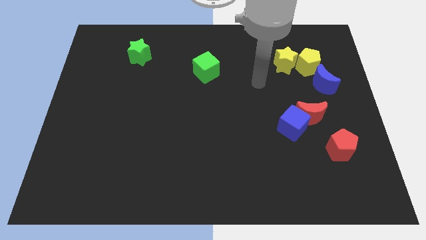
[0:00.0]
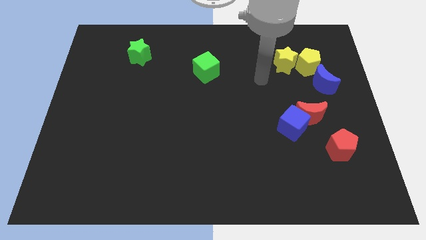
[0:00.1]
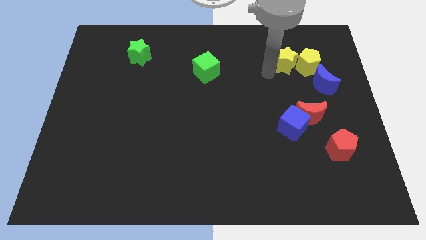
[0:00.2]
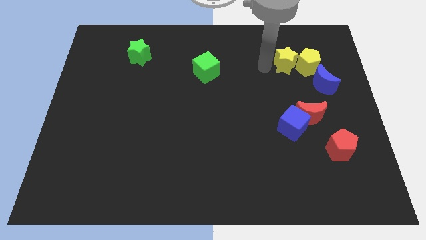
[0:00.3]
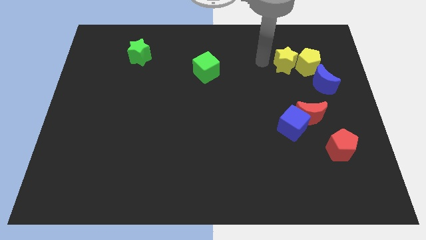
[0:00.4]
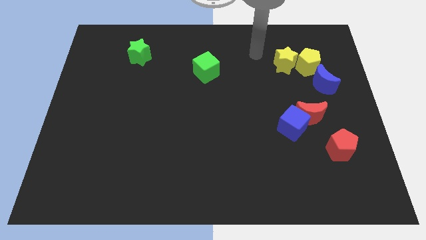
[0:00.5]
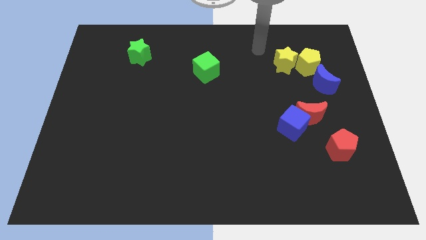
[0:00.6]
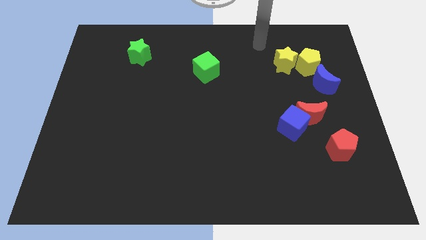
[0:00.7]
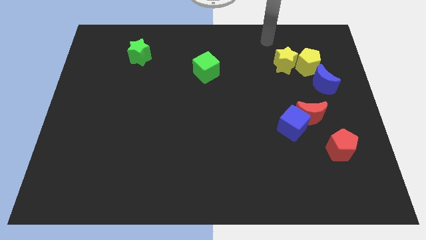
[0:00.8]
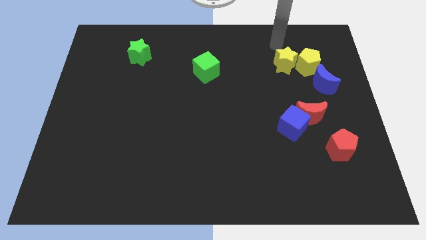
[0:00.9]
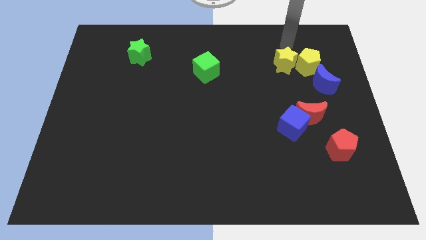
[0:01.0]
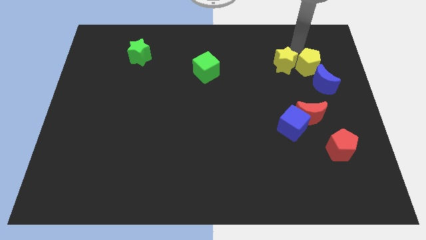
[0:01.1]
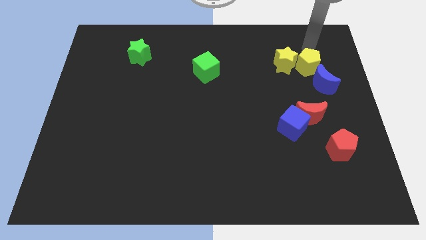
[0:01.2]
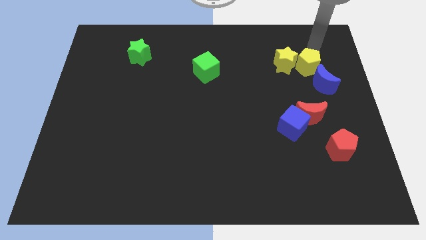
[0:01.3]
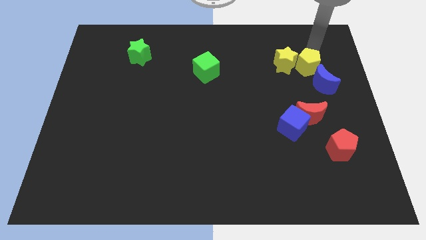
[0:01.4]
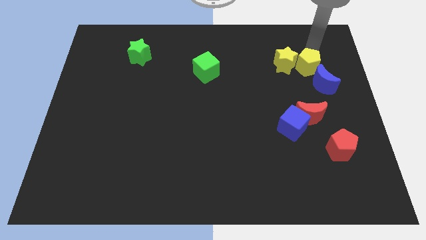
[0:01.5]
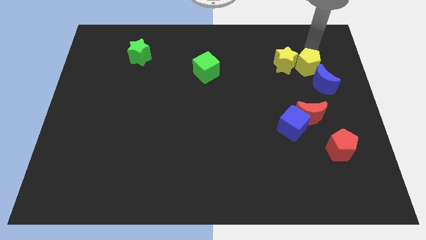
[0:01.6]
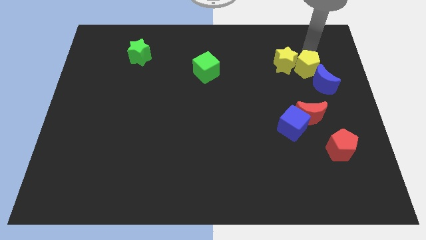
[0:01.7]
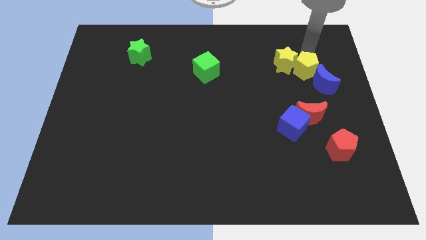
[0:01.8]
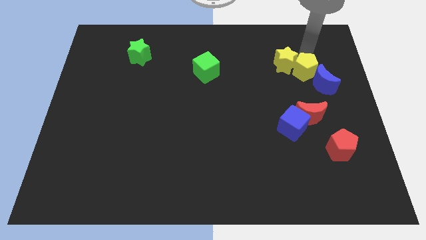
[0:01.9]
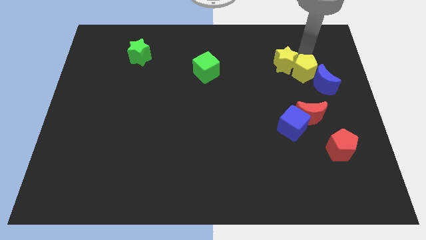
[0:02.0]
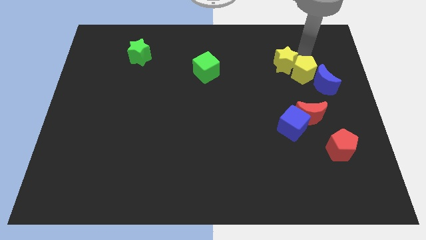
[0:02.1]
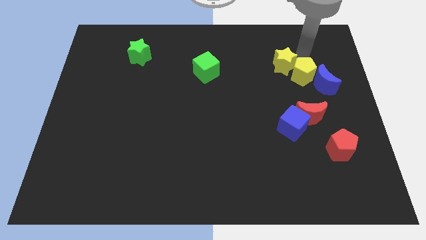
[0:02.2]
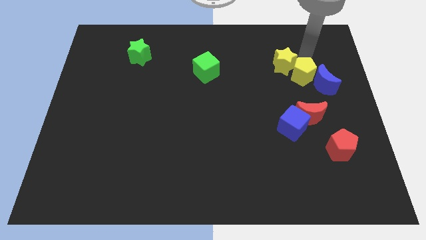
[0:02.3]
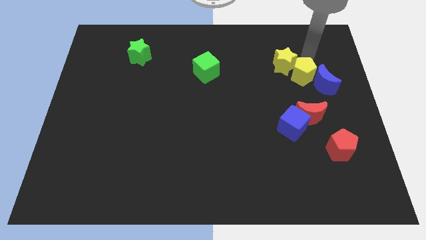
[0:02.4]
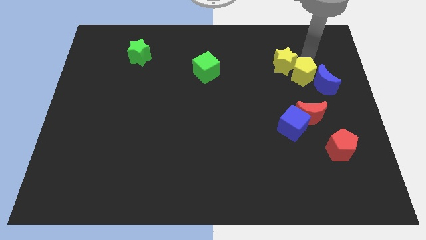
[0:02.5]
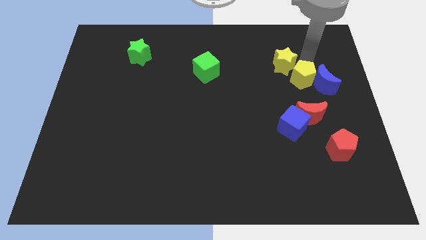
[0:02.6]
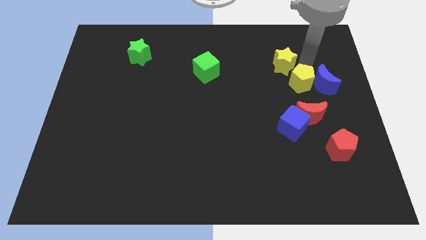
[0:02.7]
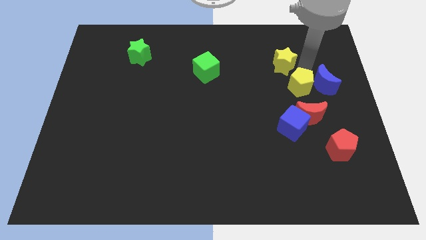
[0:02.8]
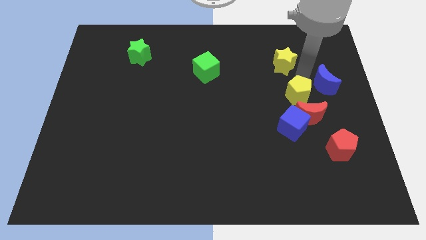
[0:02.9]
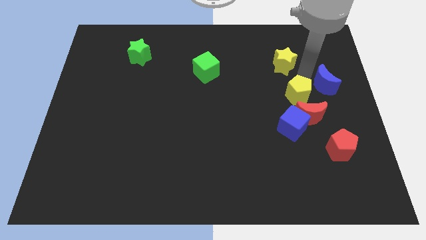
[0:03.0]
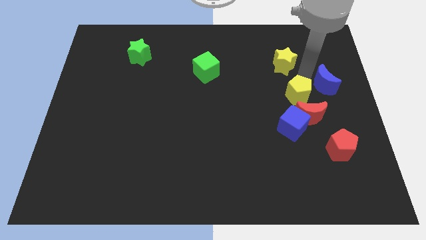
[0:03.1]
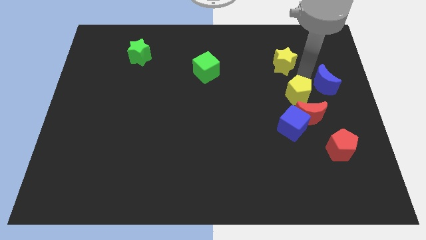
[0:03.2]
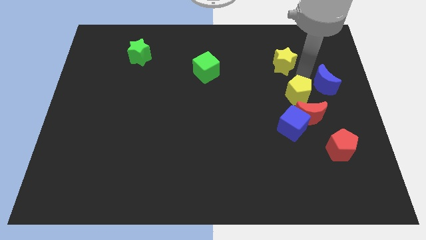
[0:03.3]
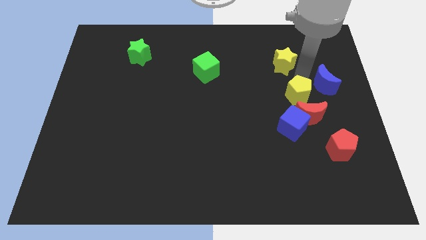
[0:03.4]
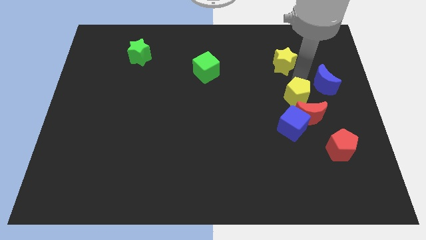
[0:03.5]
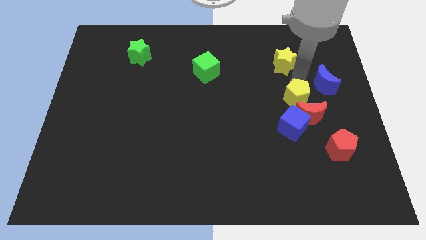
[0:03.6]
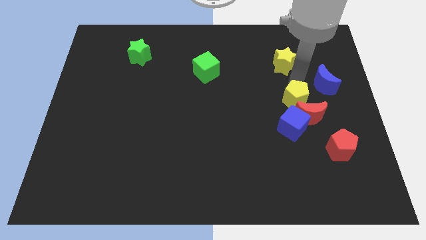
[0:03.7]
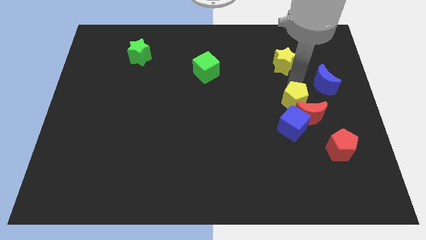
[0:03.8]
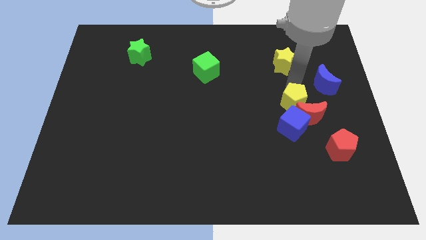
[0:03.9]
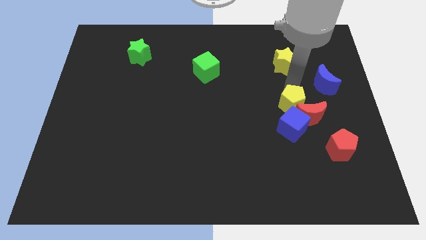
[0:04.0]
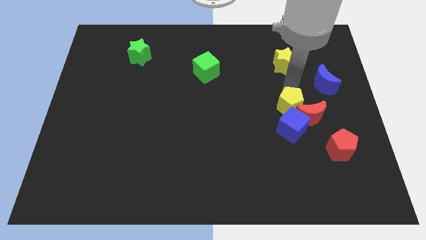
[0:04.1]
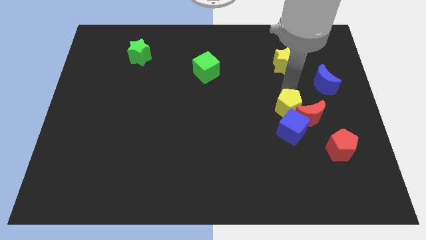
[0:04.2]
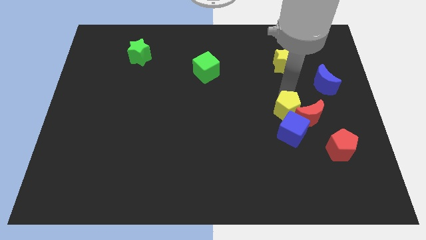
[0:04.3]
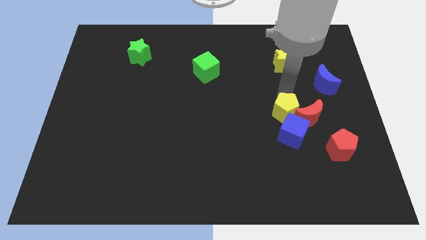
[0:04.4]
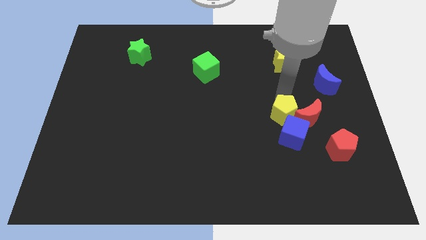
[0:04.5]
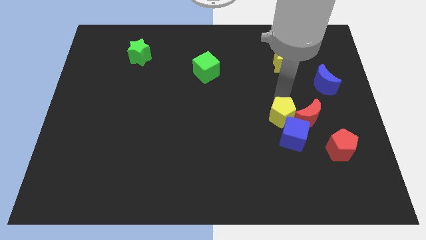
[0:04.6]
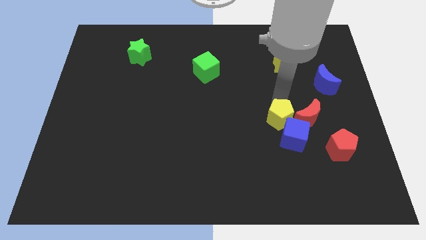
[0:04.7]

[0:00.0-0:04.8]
slide the yellow pentagon next to the blue cube

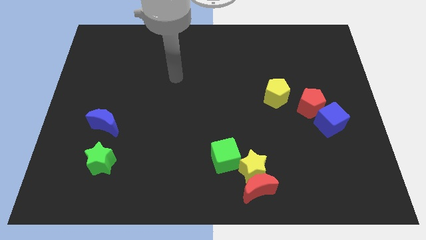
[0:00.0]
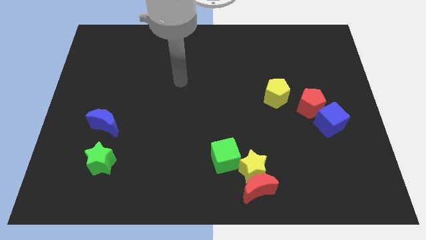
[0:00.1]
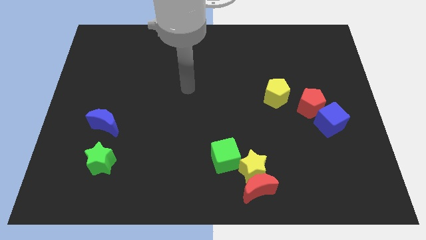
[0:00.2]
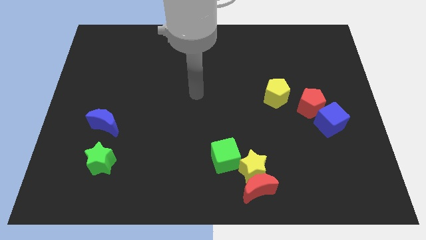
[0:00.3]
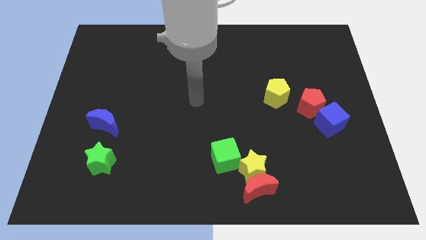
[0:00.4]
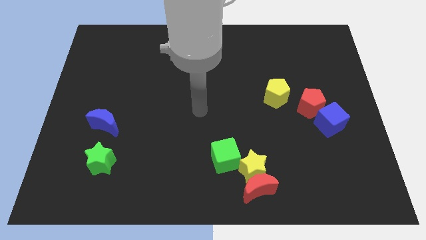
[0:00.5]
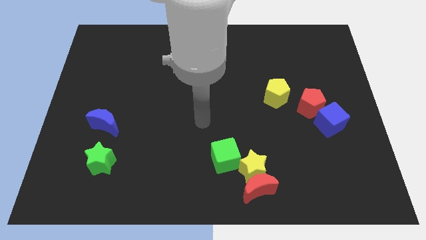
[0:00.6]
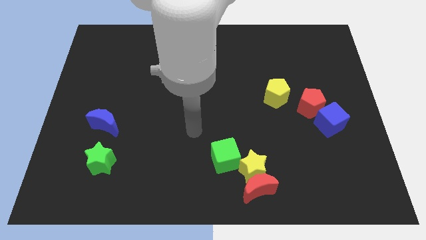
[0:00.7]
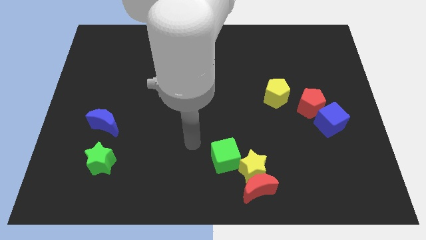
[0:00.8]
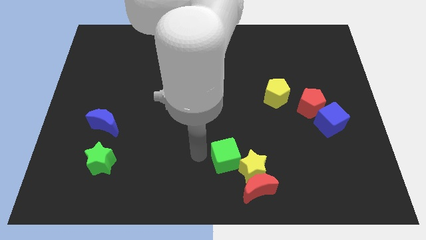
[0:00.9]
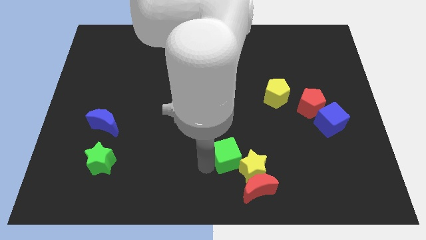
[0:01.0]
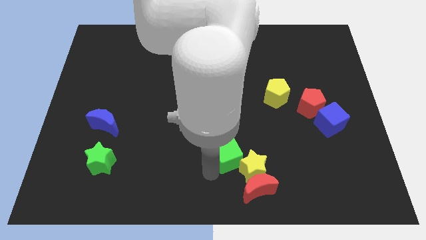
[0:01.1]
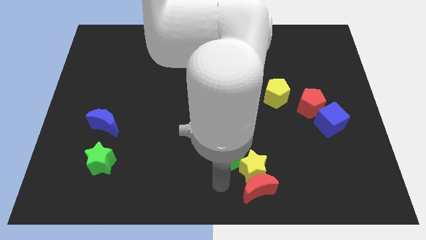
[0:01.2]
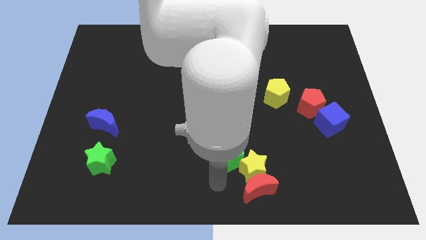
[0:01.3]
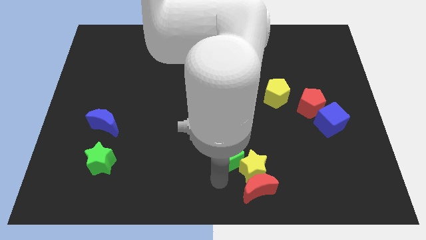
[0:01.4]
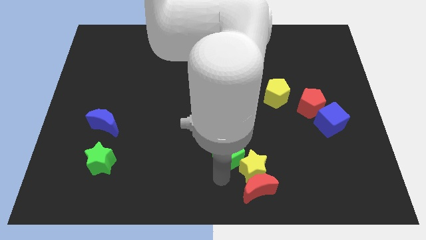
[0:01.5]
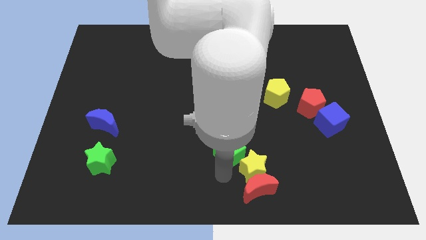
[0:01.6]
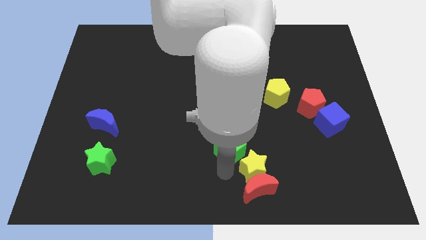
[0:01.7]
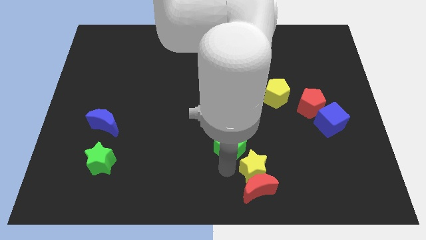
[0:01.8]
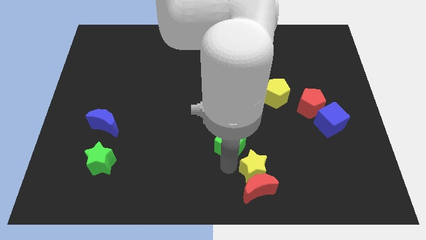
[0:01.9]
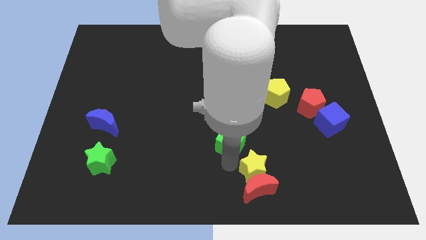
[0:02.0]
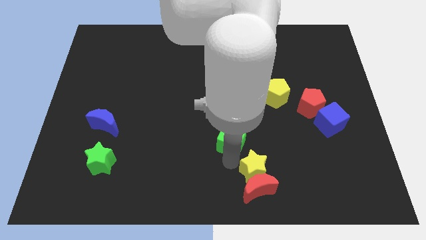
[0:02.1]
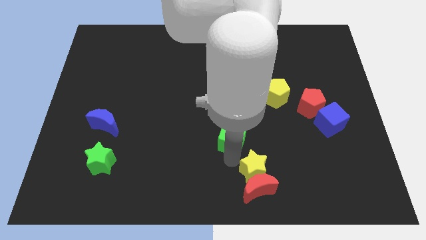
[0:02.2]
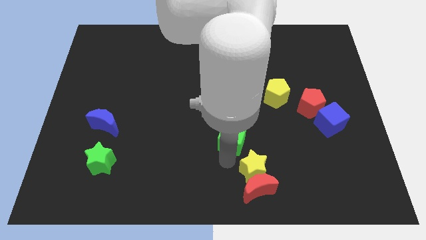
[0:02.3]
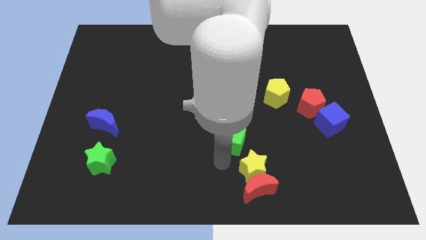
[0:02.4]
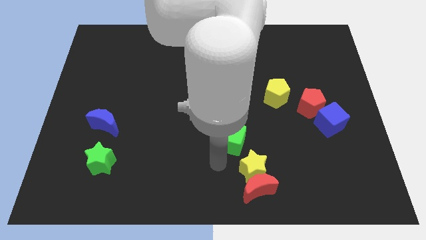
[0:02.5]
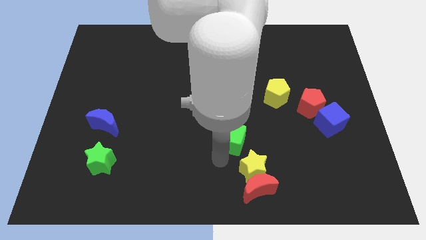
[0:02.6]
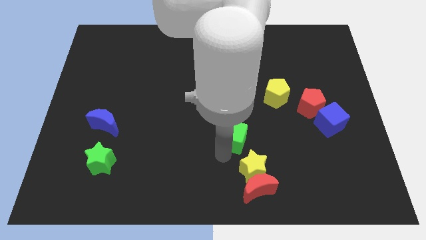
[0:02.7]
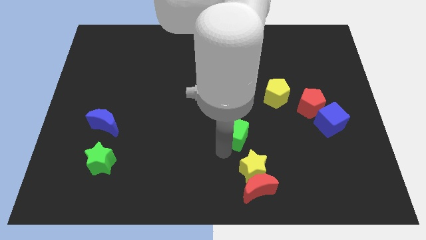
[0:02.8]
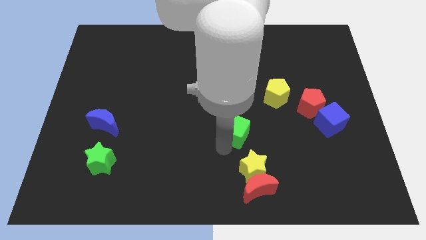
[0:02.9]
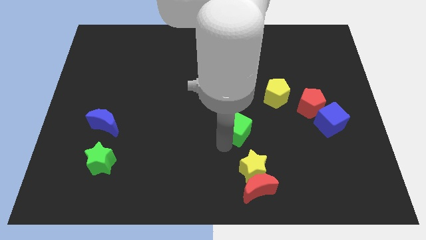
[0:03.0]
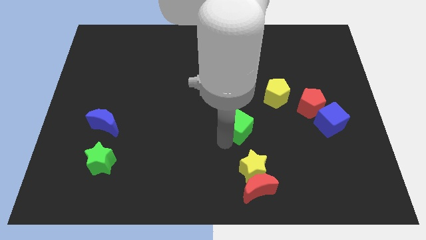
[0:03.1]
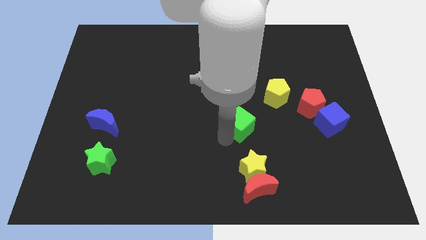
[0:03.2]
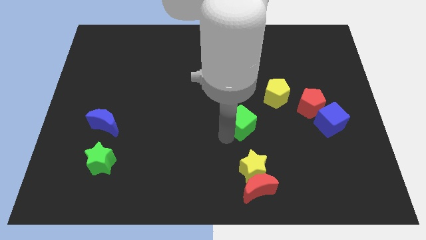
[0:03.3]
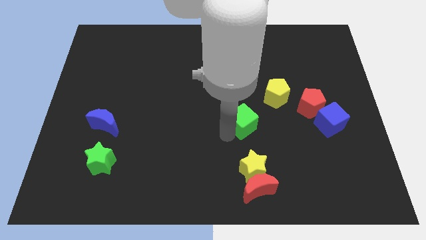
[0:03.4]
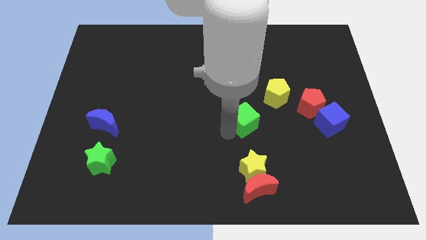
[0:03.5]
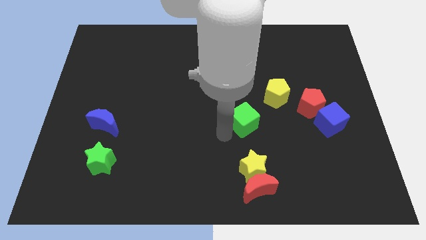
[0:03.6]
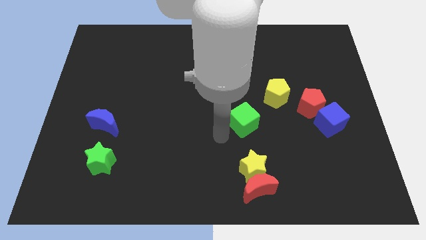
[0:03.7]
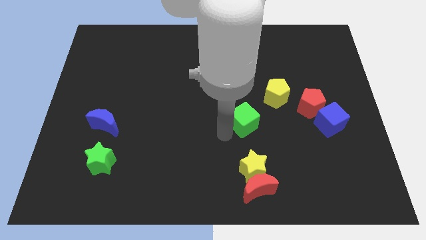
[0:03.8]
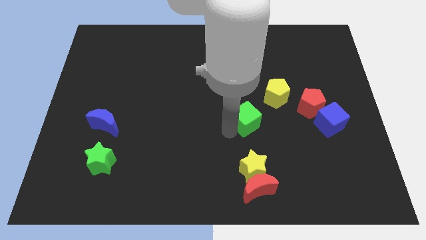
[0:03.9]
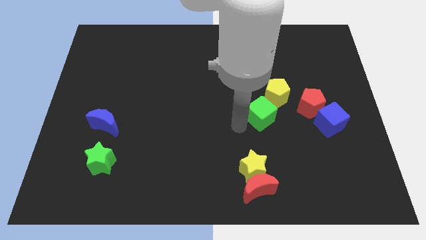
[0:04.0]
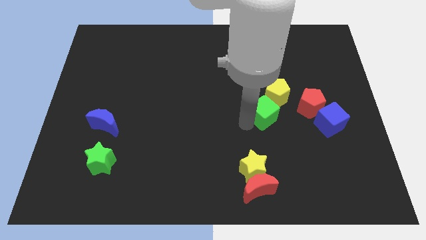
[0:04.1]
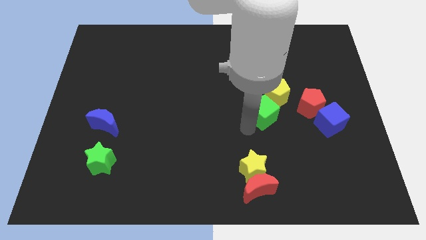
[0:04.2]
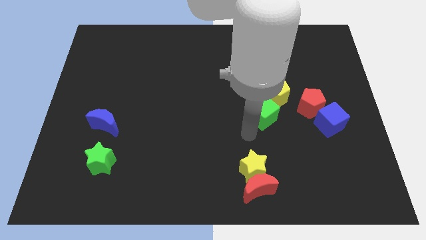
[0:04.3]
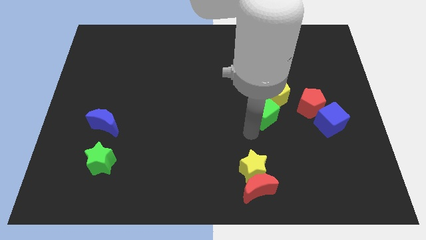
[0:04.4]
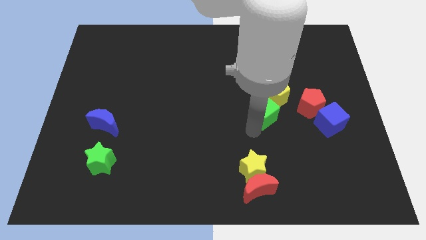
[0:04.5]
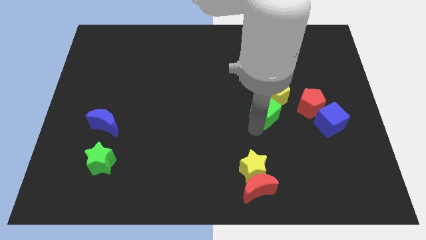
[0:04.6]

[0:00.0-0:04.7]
push the green cube next to the yellow pentagon
